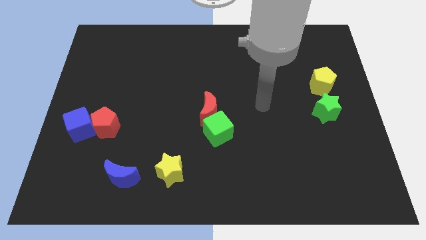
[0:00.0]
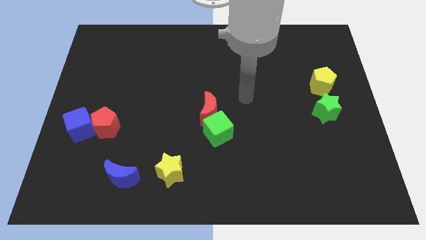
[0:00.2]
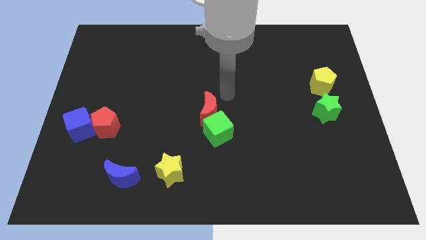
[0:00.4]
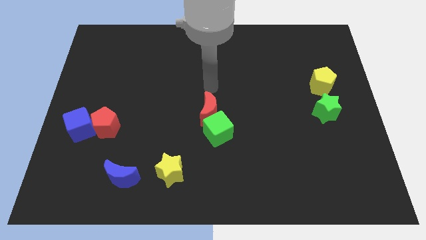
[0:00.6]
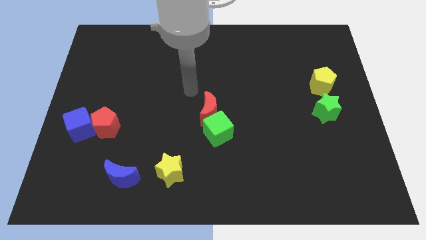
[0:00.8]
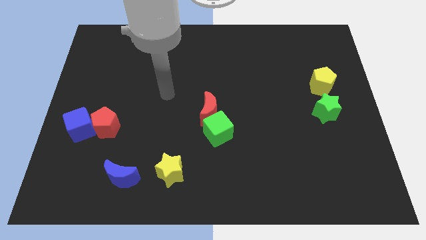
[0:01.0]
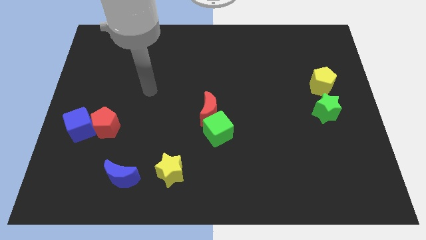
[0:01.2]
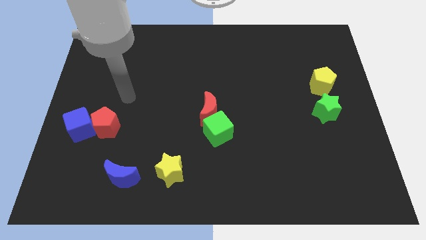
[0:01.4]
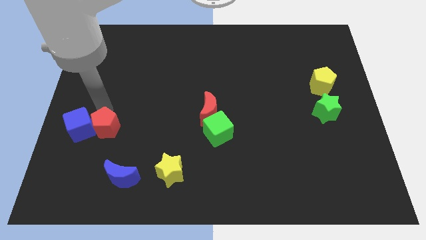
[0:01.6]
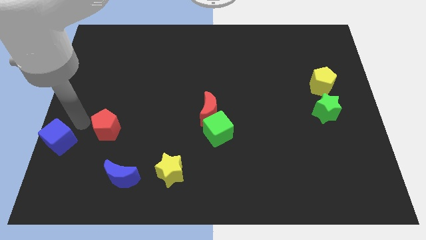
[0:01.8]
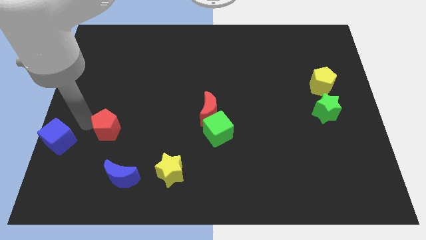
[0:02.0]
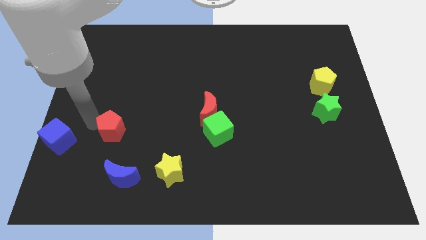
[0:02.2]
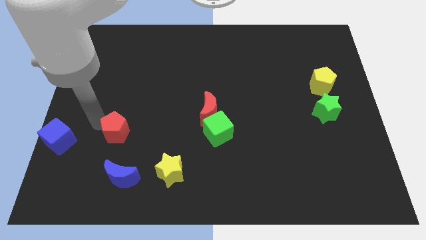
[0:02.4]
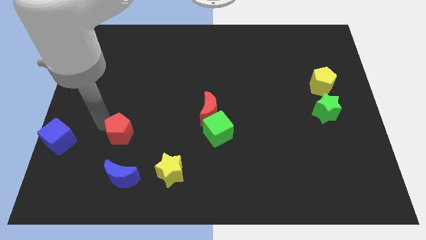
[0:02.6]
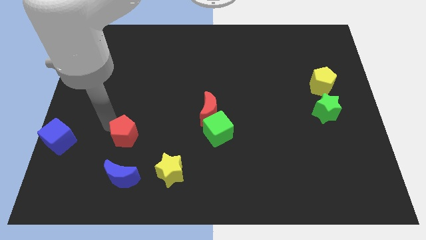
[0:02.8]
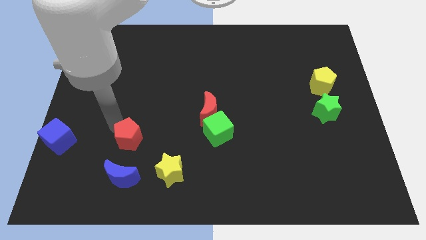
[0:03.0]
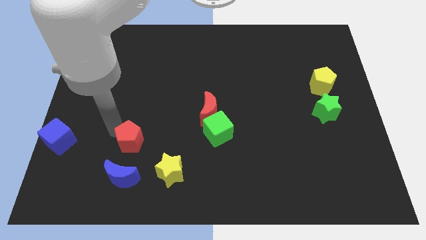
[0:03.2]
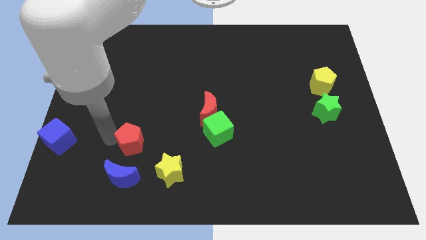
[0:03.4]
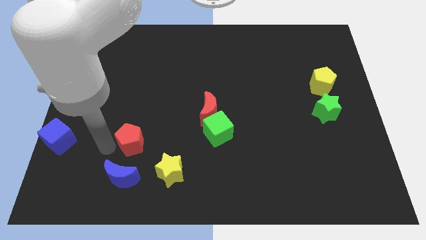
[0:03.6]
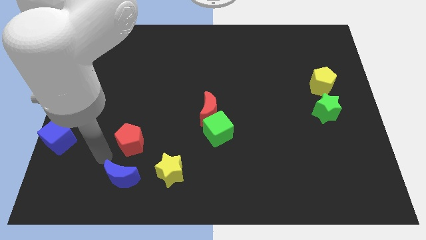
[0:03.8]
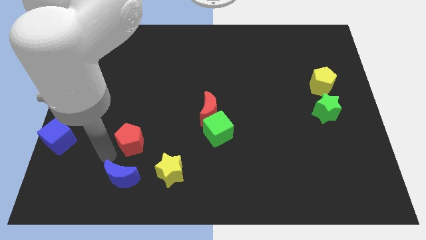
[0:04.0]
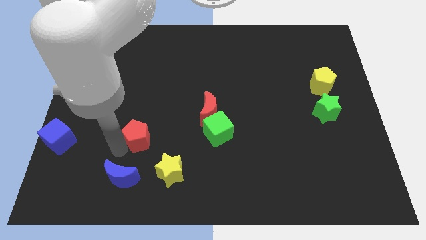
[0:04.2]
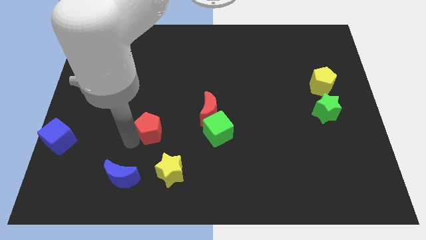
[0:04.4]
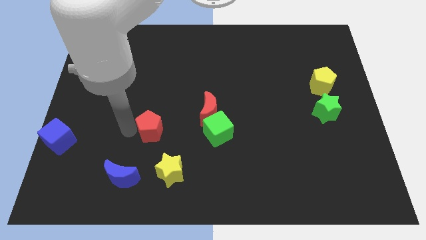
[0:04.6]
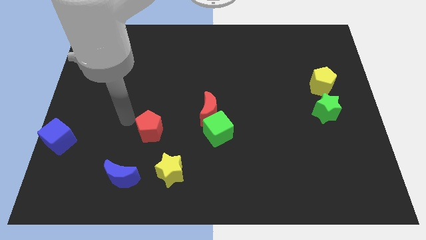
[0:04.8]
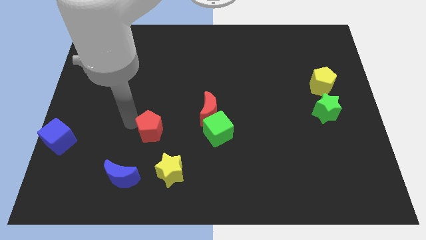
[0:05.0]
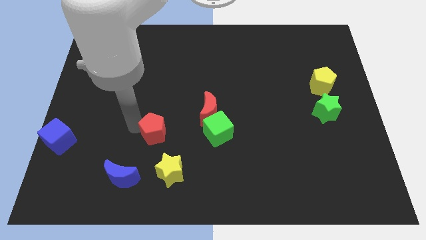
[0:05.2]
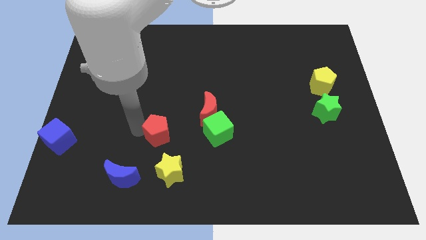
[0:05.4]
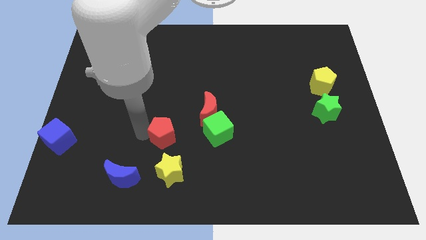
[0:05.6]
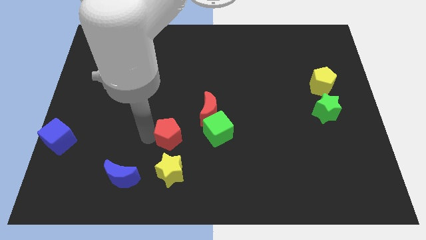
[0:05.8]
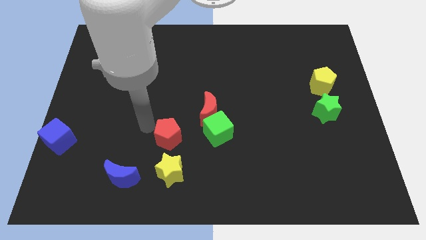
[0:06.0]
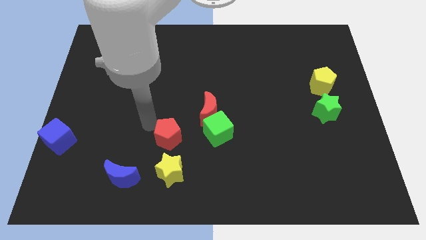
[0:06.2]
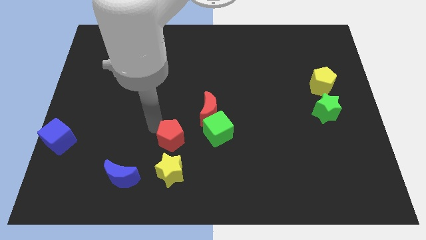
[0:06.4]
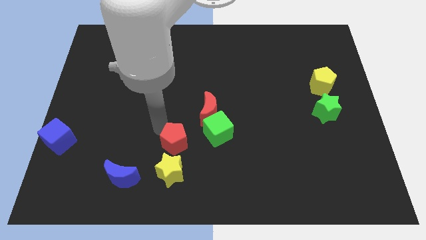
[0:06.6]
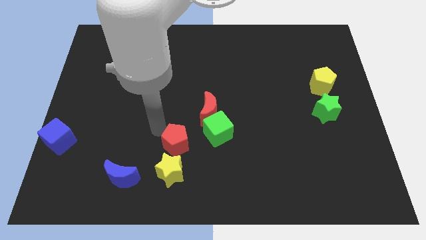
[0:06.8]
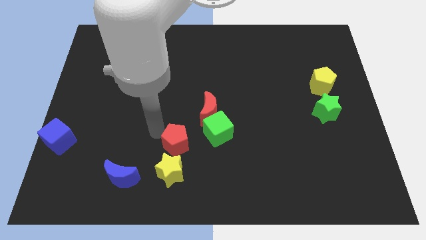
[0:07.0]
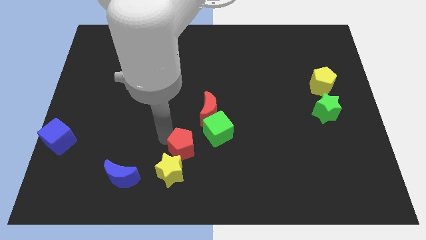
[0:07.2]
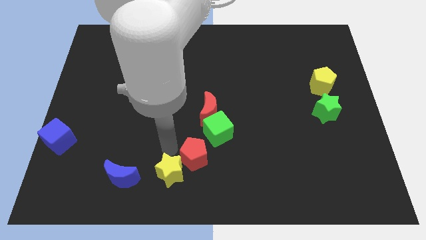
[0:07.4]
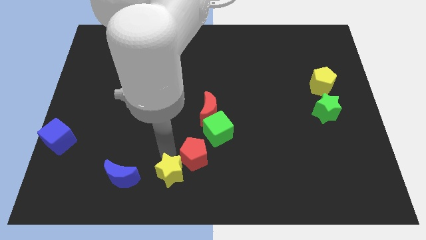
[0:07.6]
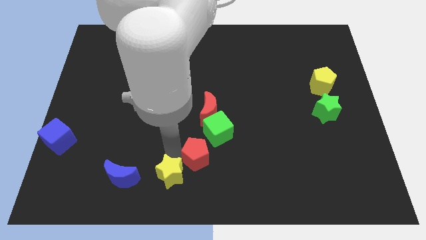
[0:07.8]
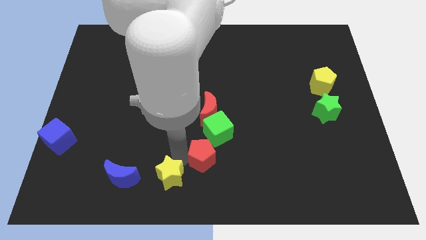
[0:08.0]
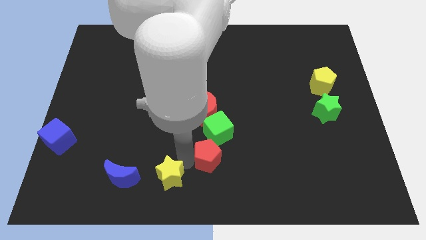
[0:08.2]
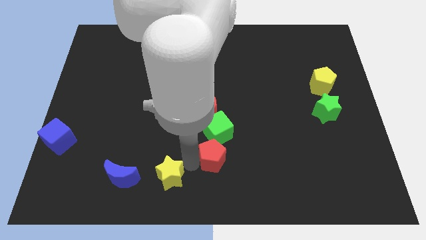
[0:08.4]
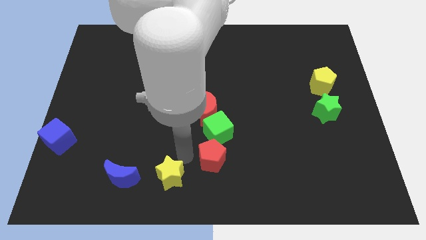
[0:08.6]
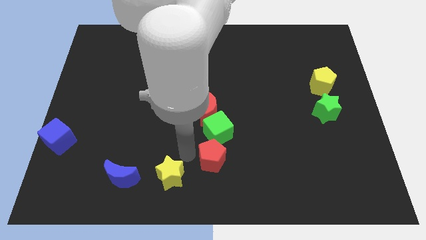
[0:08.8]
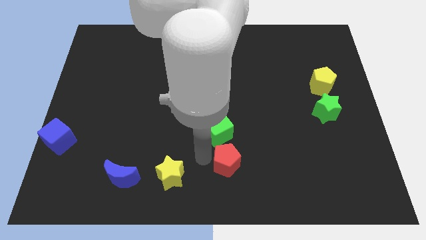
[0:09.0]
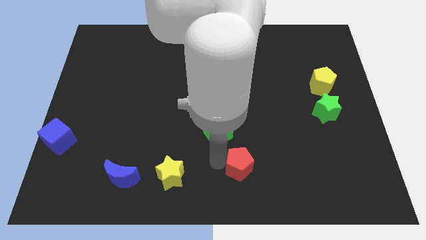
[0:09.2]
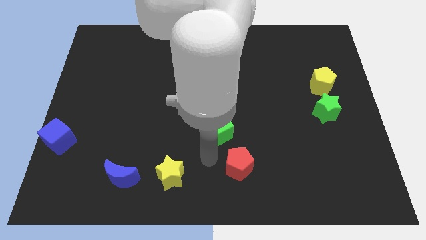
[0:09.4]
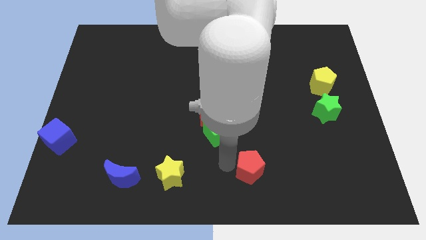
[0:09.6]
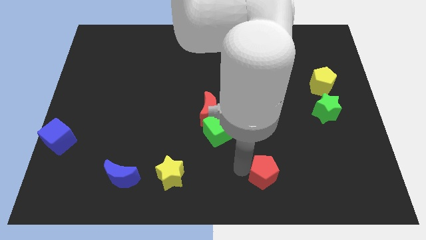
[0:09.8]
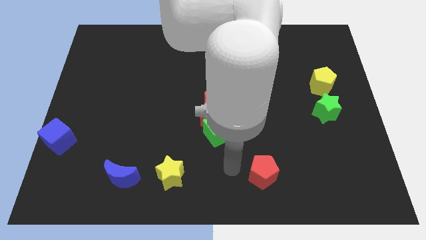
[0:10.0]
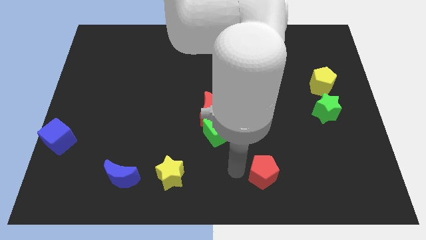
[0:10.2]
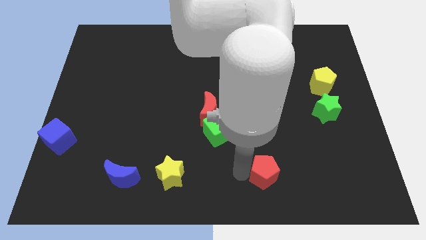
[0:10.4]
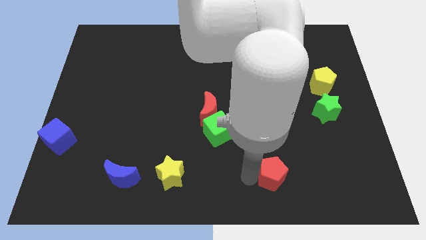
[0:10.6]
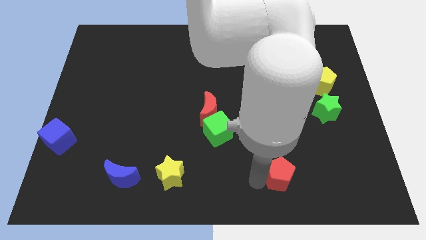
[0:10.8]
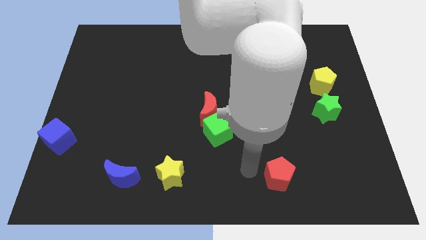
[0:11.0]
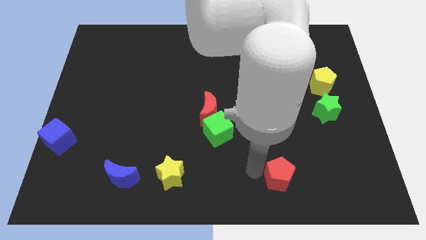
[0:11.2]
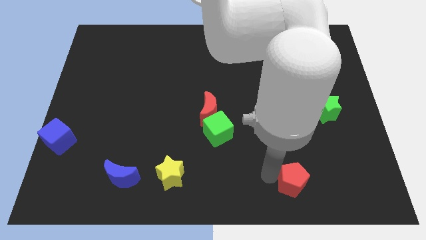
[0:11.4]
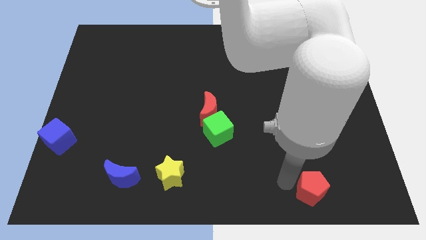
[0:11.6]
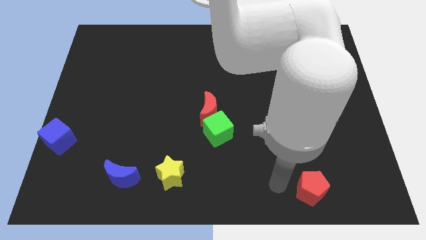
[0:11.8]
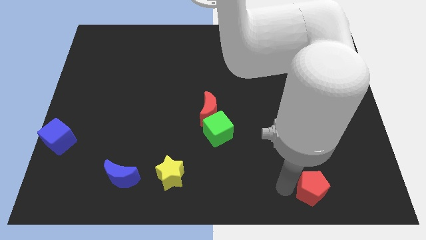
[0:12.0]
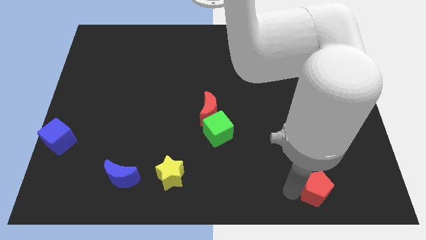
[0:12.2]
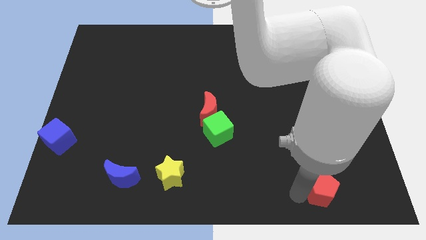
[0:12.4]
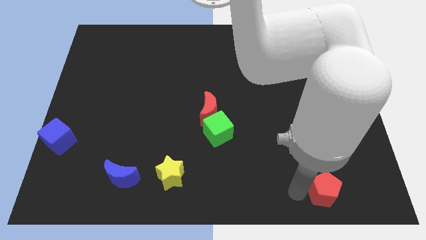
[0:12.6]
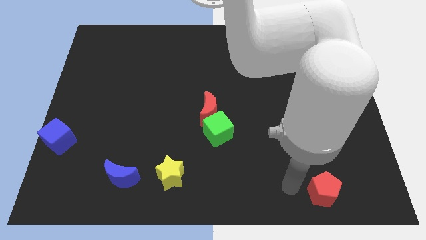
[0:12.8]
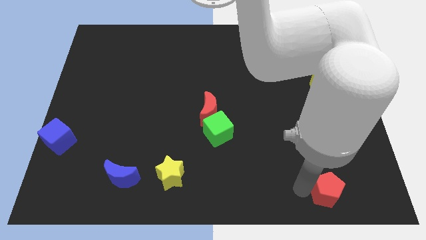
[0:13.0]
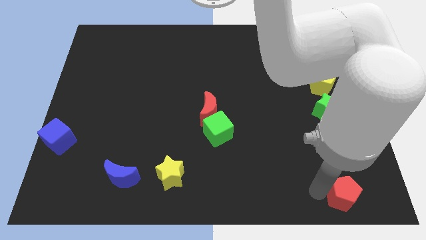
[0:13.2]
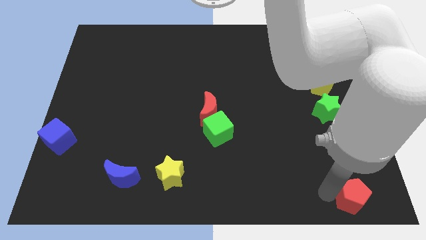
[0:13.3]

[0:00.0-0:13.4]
push the red pentagon to the lower right corner

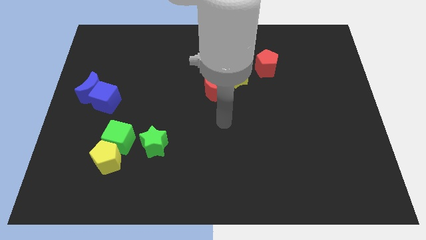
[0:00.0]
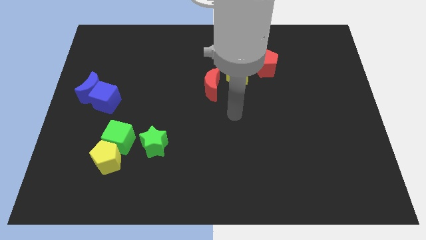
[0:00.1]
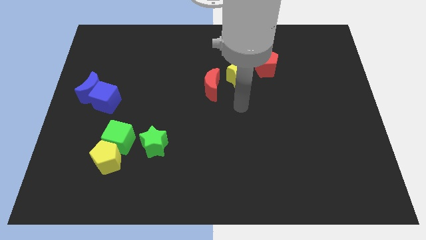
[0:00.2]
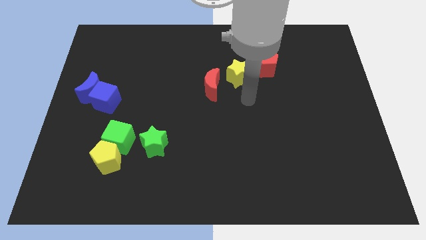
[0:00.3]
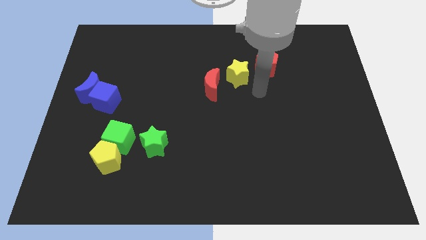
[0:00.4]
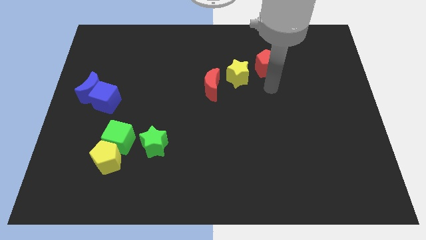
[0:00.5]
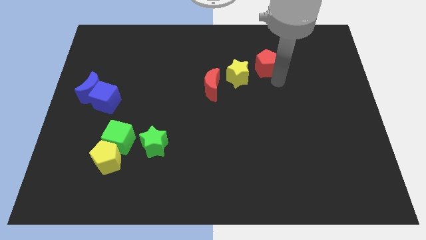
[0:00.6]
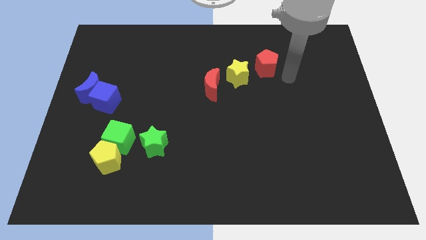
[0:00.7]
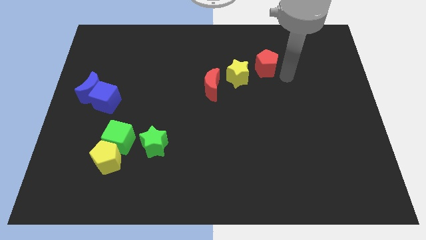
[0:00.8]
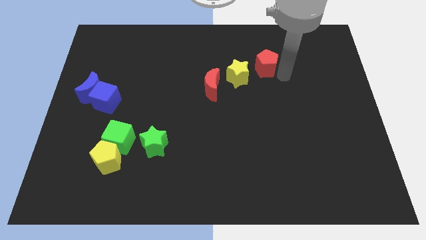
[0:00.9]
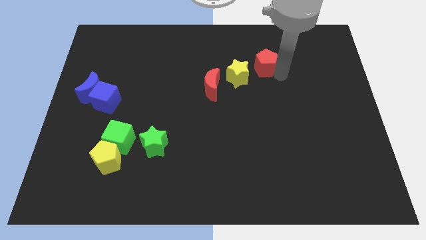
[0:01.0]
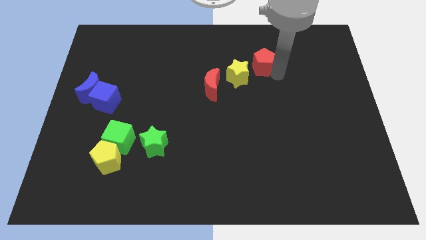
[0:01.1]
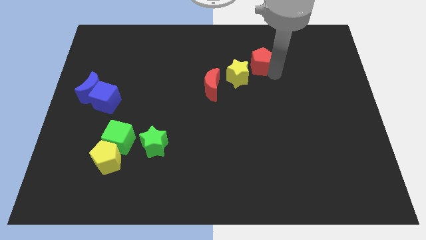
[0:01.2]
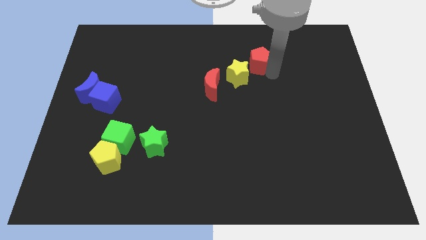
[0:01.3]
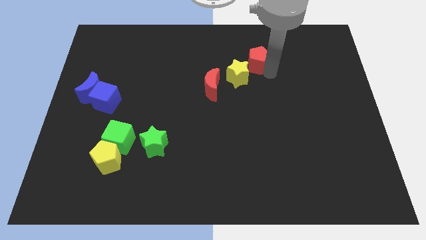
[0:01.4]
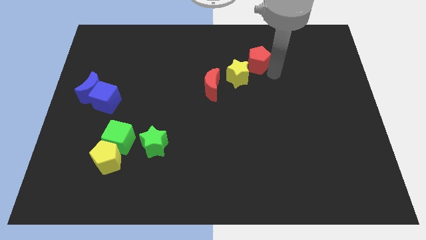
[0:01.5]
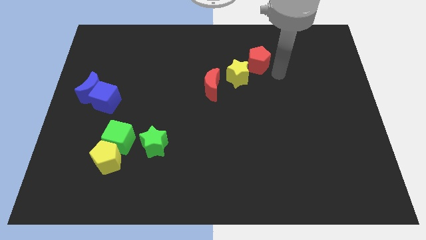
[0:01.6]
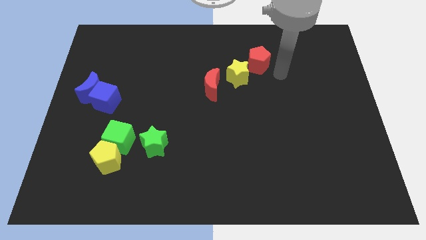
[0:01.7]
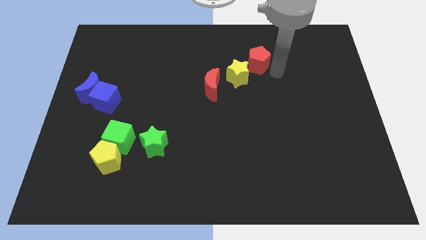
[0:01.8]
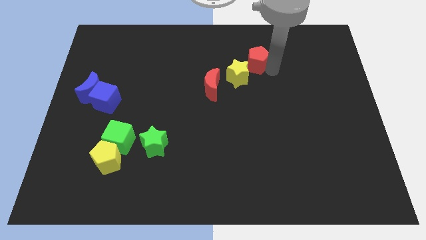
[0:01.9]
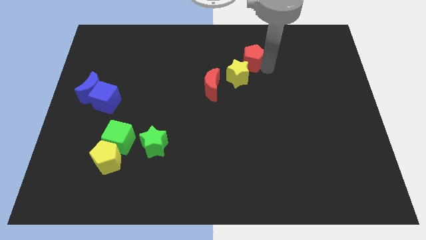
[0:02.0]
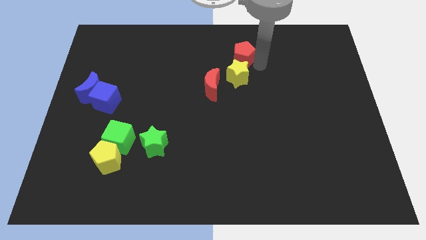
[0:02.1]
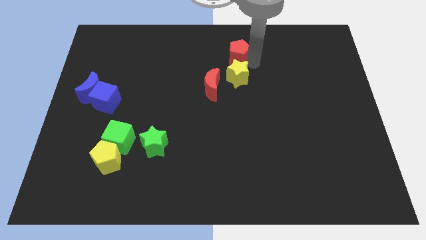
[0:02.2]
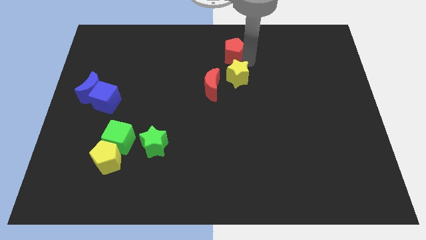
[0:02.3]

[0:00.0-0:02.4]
slide the red pentagon to the top side
